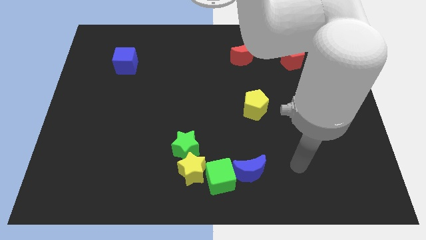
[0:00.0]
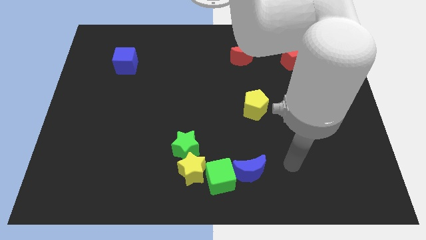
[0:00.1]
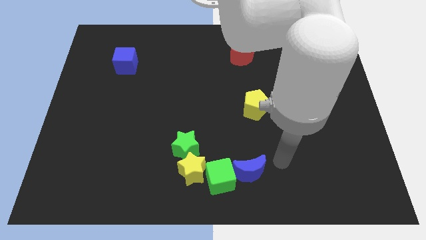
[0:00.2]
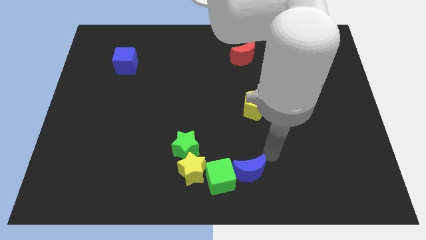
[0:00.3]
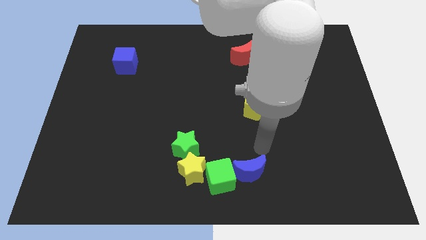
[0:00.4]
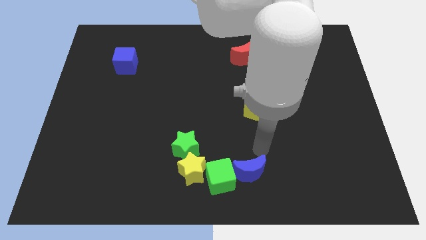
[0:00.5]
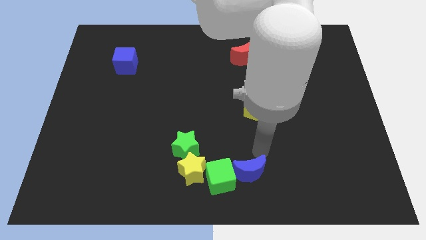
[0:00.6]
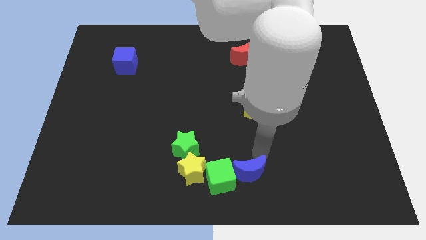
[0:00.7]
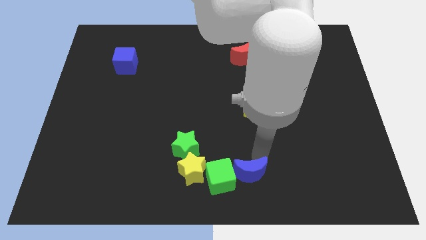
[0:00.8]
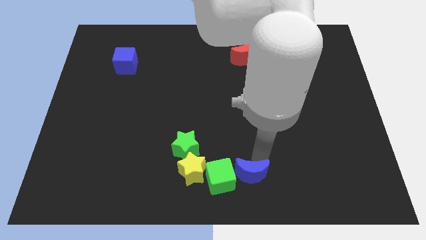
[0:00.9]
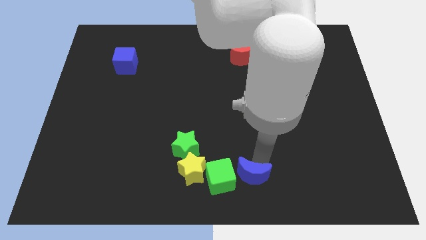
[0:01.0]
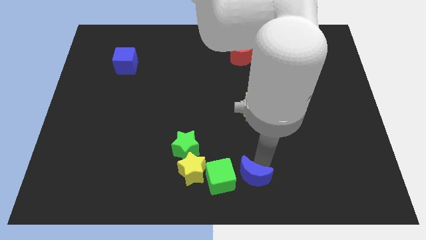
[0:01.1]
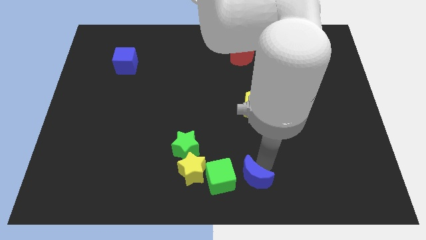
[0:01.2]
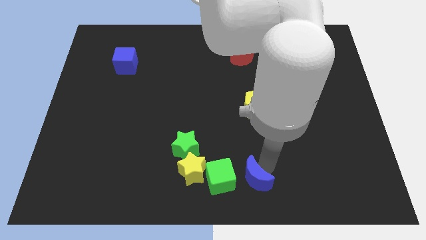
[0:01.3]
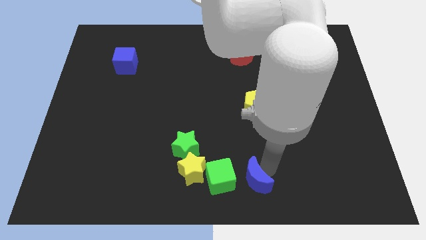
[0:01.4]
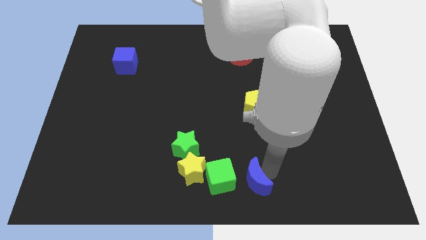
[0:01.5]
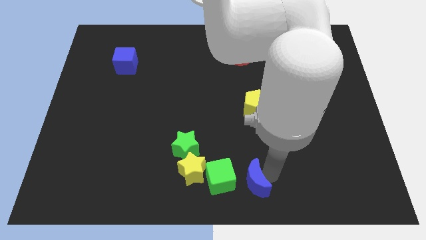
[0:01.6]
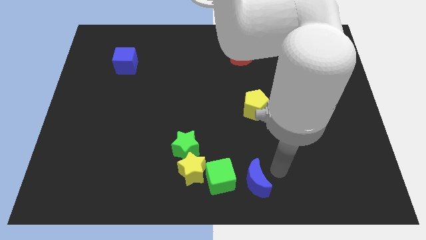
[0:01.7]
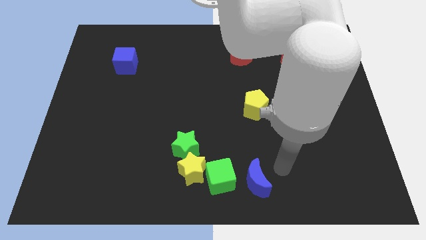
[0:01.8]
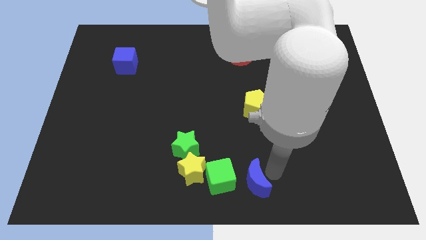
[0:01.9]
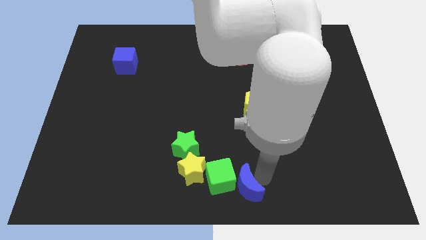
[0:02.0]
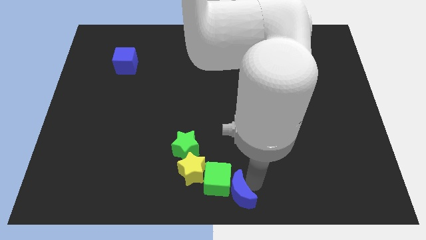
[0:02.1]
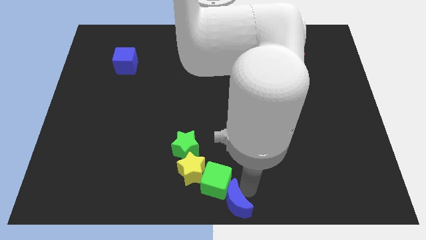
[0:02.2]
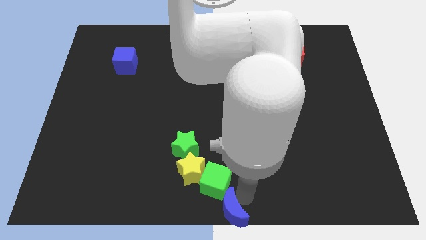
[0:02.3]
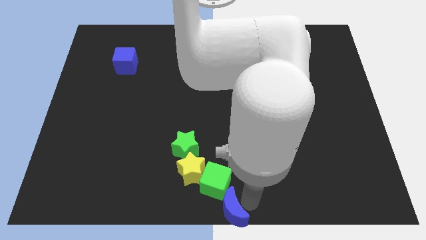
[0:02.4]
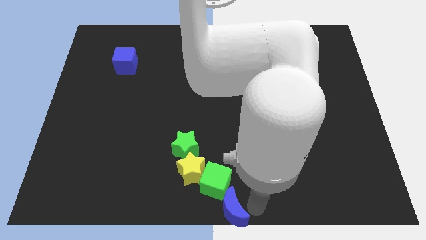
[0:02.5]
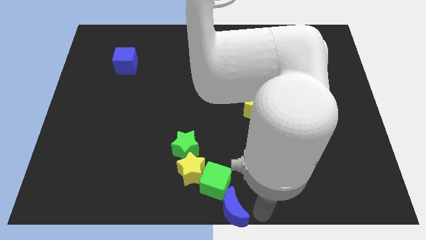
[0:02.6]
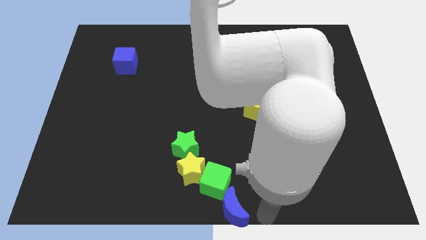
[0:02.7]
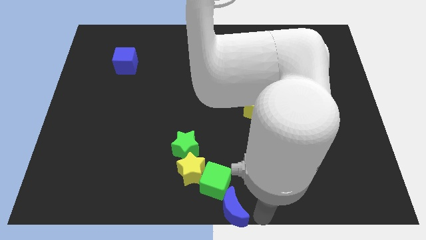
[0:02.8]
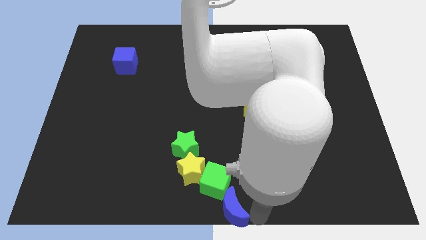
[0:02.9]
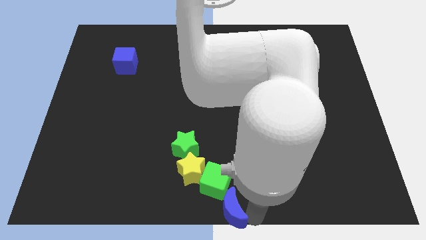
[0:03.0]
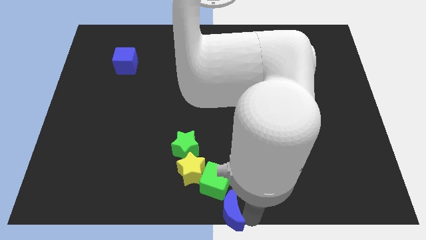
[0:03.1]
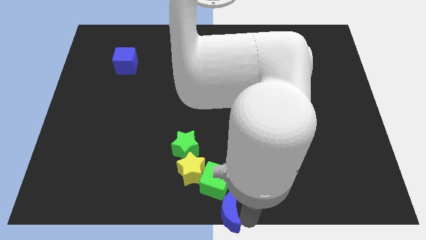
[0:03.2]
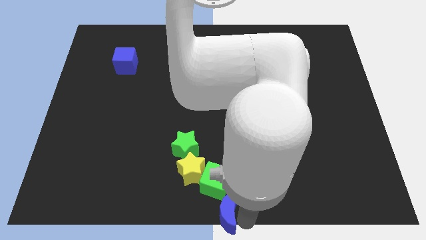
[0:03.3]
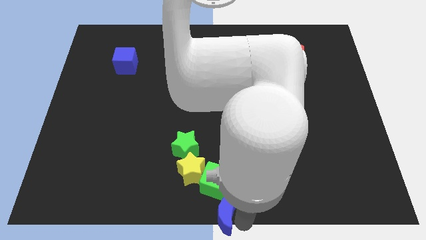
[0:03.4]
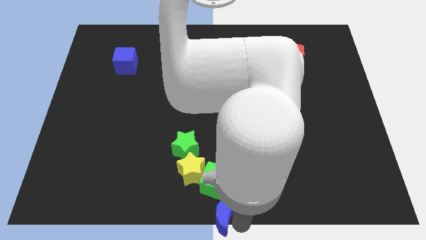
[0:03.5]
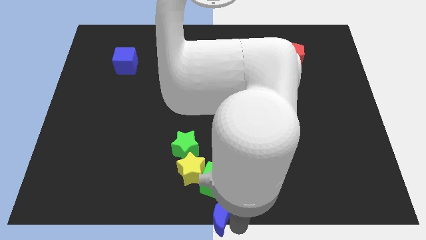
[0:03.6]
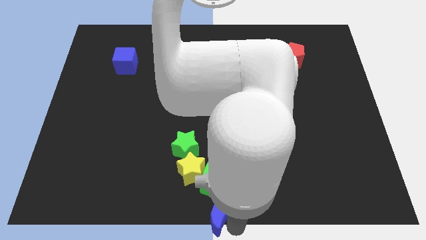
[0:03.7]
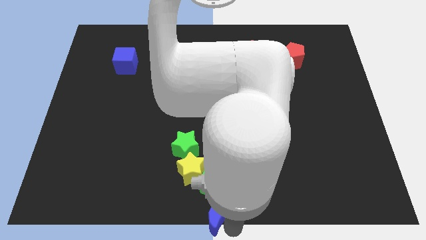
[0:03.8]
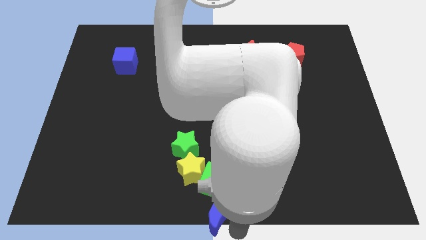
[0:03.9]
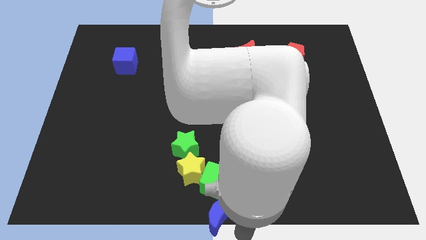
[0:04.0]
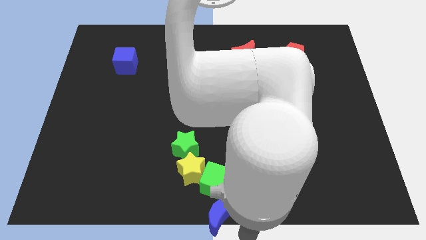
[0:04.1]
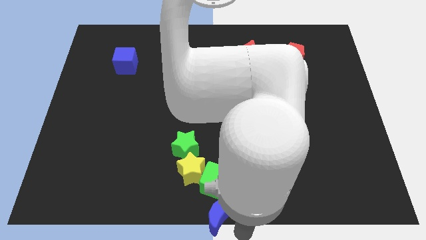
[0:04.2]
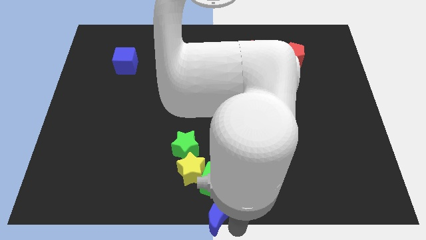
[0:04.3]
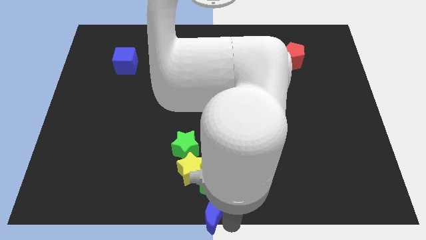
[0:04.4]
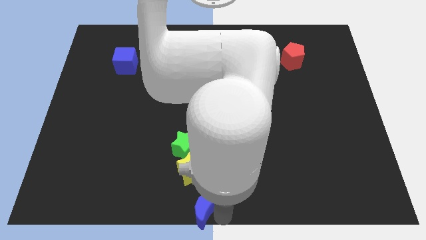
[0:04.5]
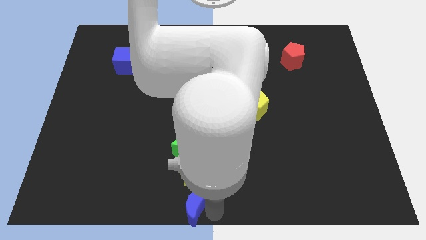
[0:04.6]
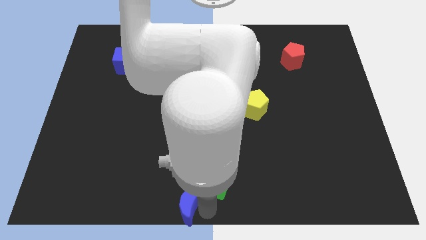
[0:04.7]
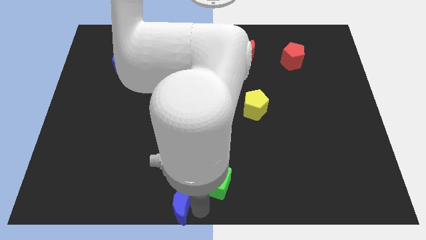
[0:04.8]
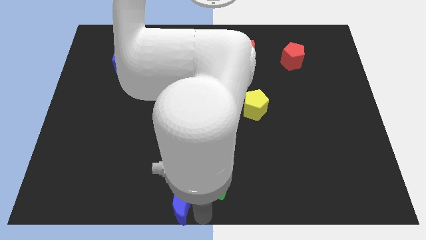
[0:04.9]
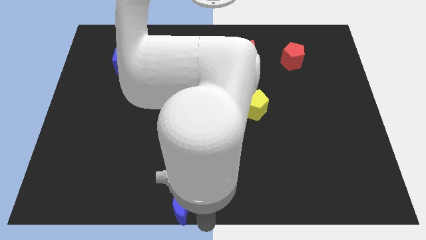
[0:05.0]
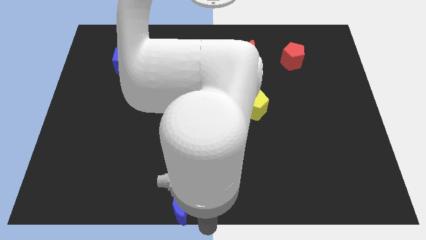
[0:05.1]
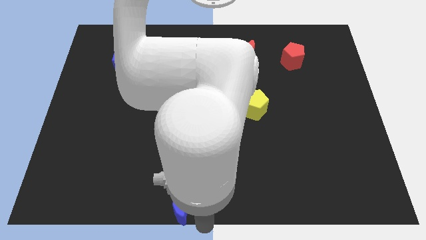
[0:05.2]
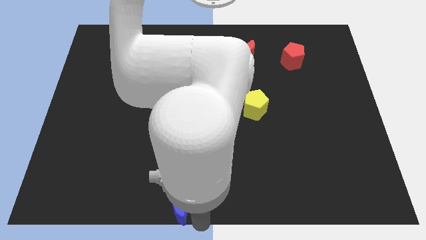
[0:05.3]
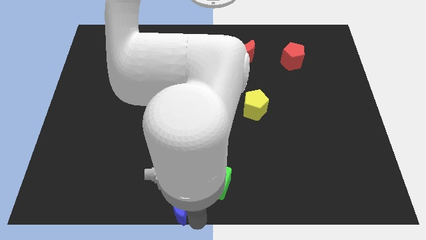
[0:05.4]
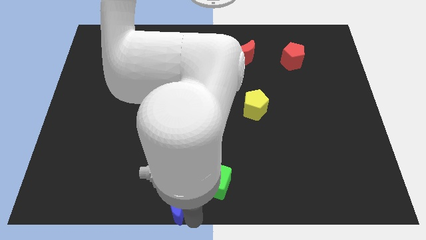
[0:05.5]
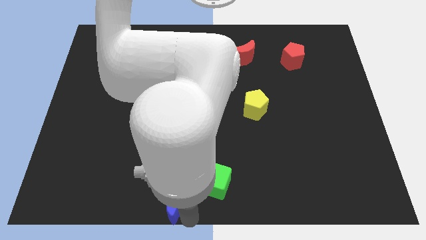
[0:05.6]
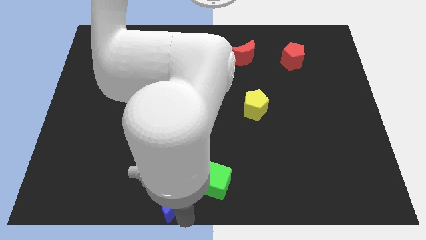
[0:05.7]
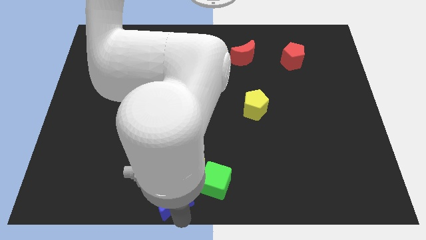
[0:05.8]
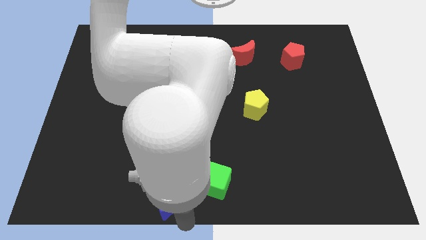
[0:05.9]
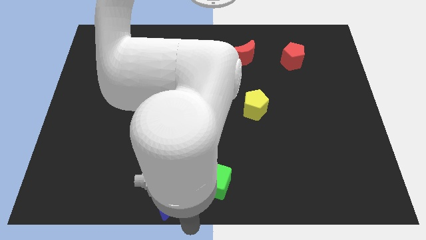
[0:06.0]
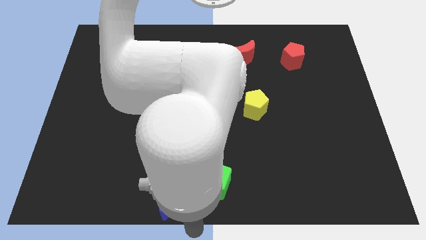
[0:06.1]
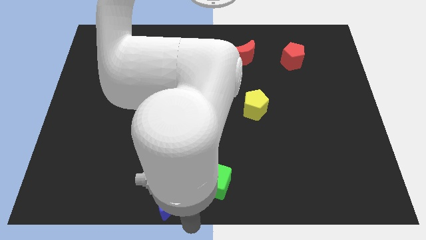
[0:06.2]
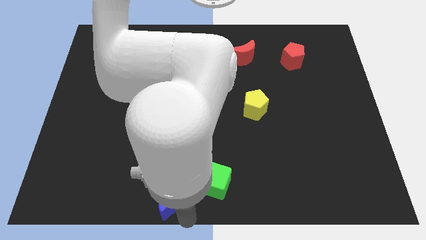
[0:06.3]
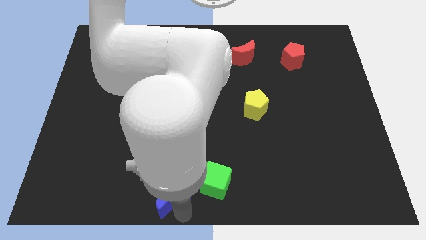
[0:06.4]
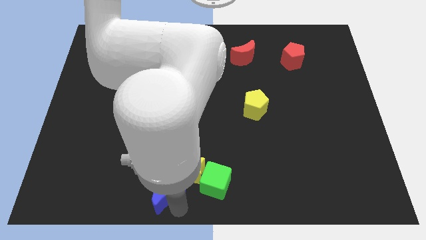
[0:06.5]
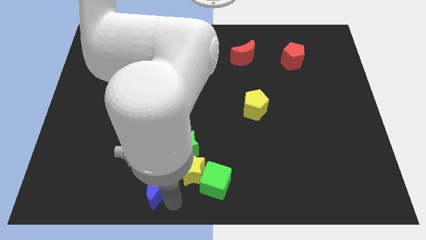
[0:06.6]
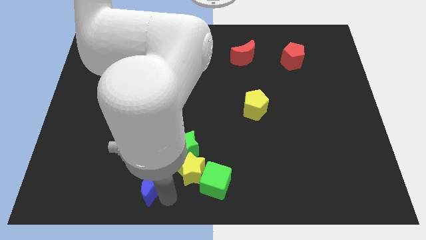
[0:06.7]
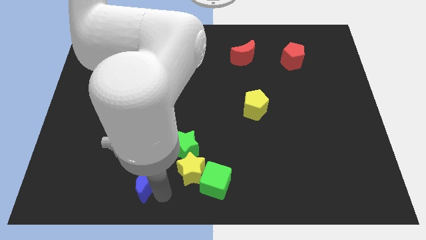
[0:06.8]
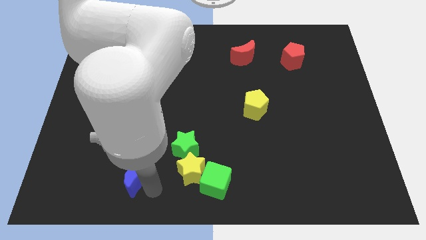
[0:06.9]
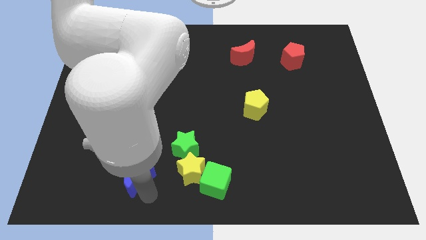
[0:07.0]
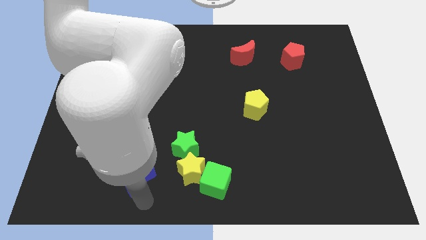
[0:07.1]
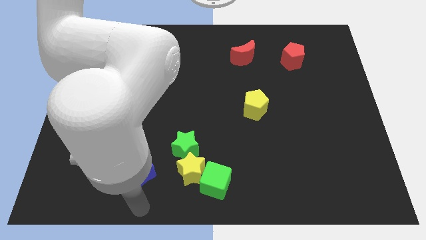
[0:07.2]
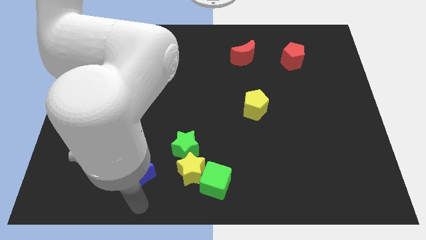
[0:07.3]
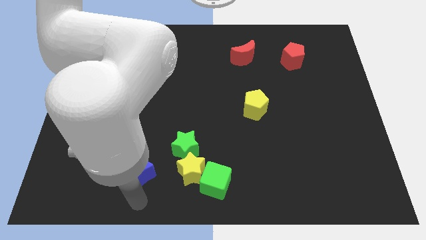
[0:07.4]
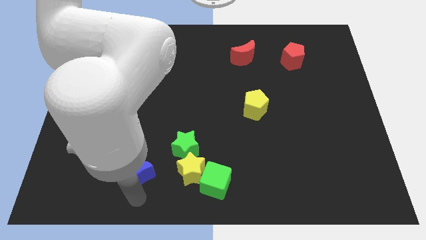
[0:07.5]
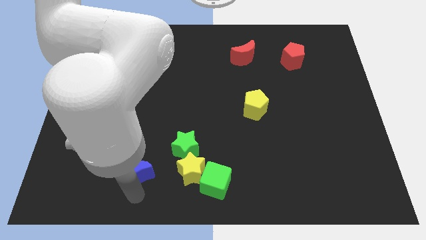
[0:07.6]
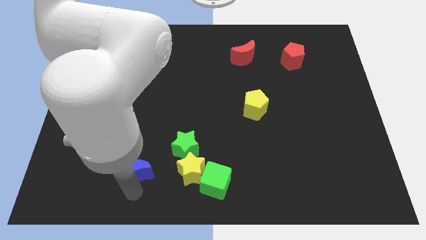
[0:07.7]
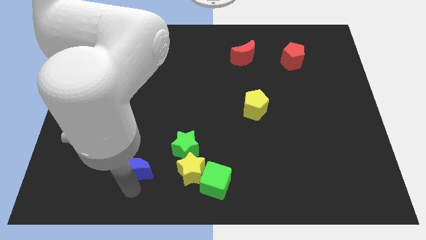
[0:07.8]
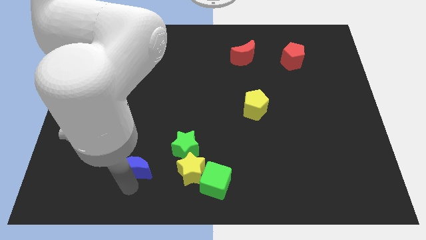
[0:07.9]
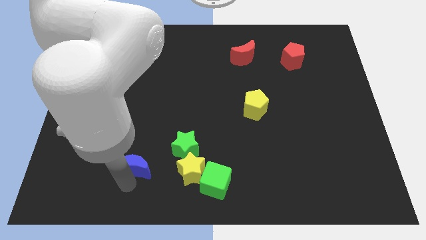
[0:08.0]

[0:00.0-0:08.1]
slide the blue moon left of the green star
